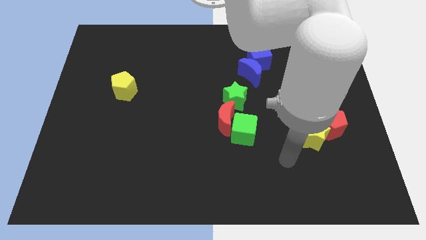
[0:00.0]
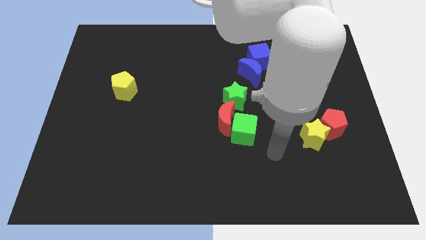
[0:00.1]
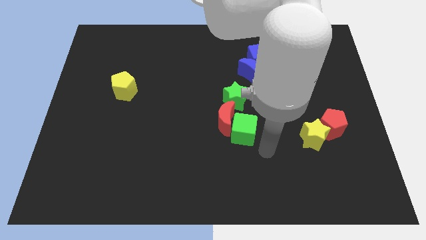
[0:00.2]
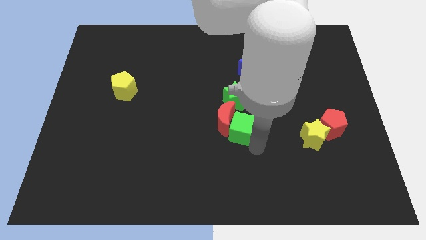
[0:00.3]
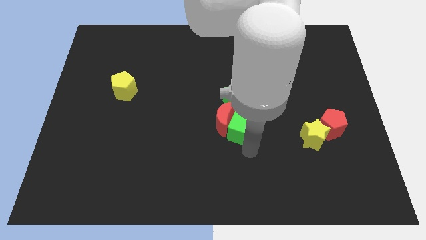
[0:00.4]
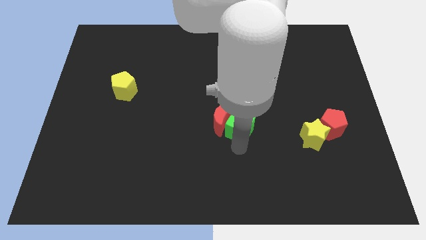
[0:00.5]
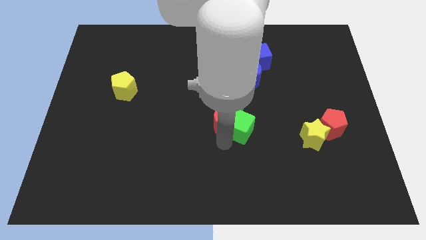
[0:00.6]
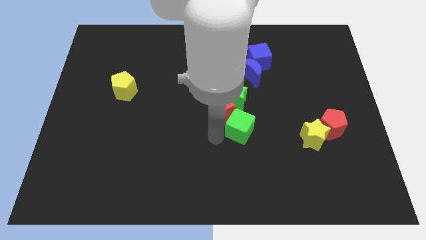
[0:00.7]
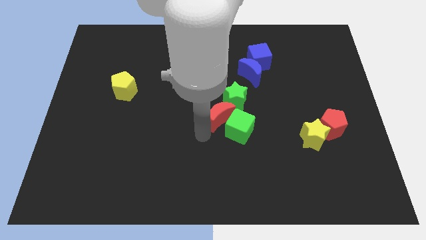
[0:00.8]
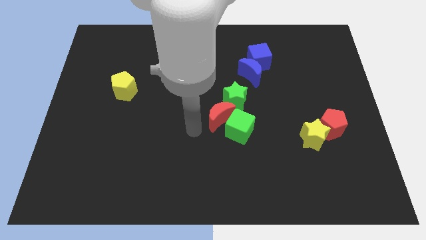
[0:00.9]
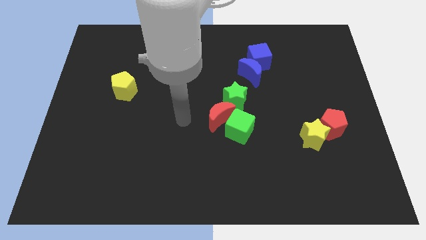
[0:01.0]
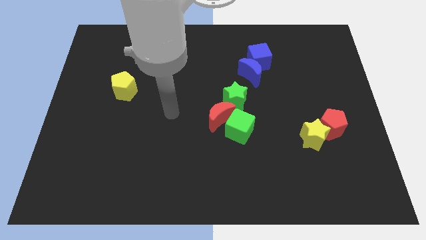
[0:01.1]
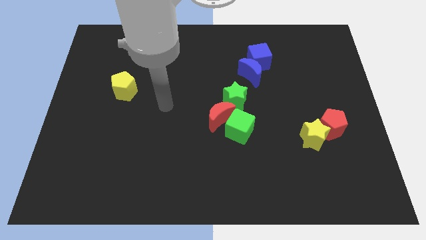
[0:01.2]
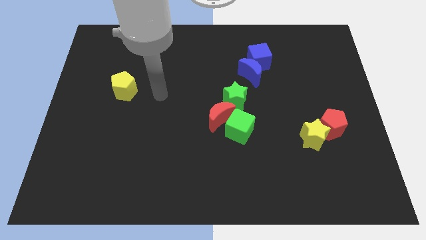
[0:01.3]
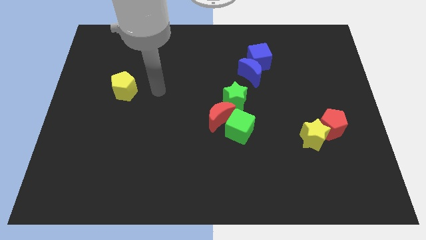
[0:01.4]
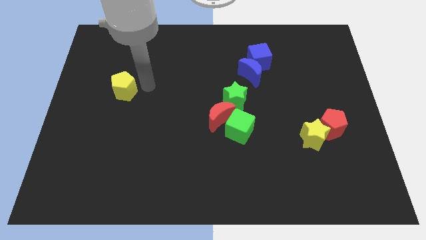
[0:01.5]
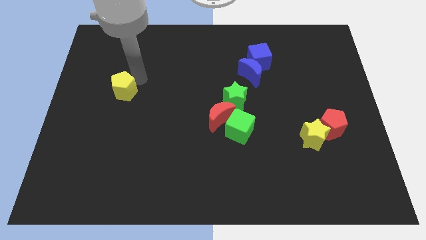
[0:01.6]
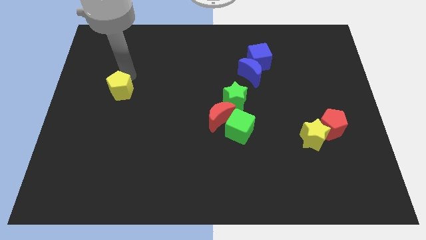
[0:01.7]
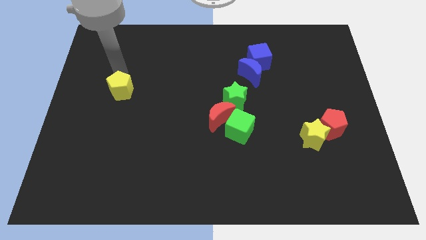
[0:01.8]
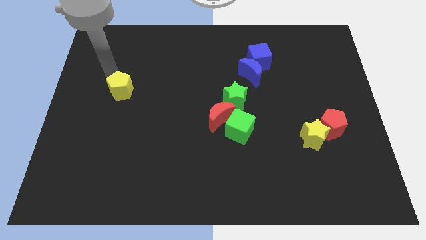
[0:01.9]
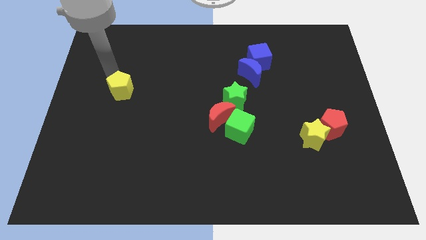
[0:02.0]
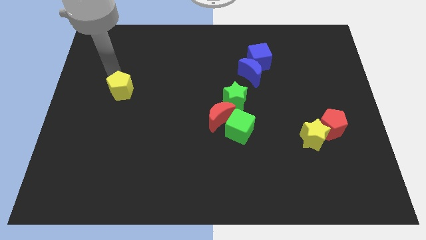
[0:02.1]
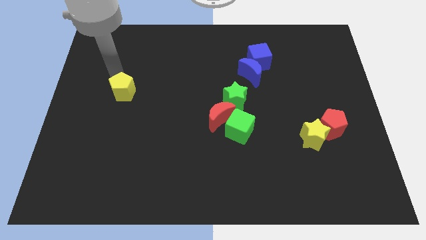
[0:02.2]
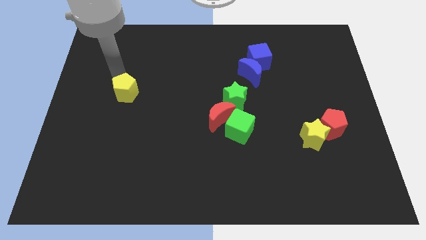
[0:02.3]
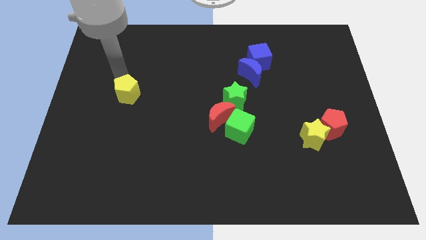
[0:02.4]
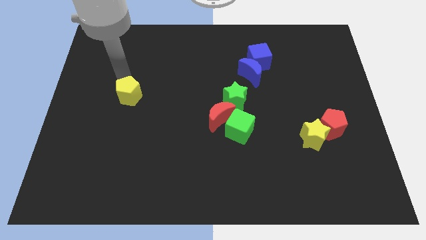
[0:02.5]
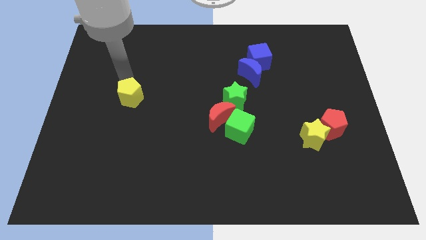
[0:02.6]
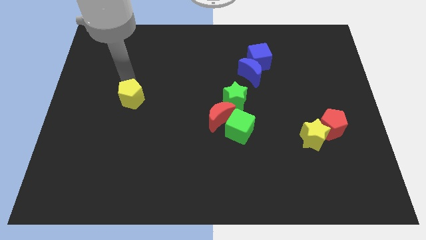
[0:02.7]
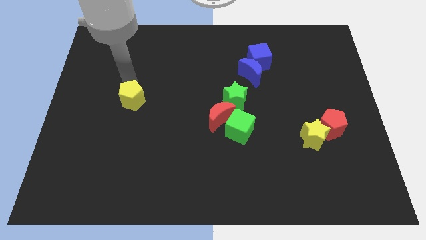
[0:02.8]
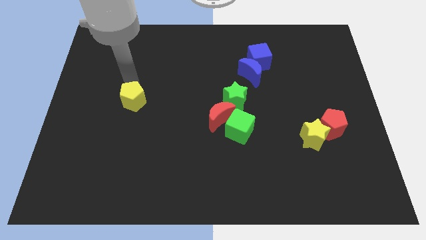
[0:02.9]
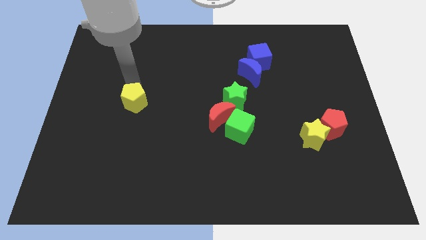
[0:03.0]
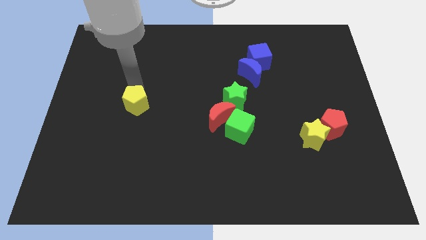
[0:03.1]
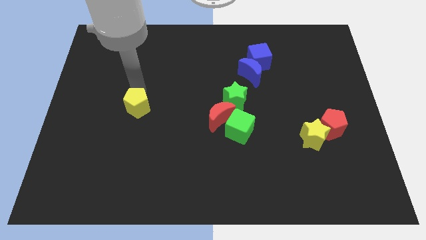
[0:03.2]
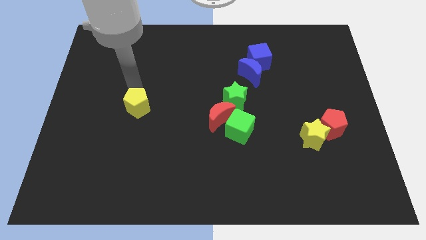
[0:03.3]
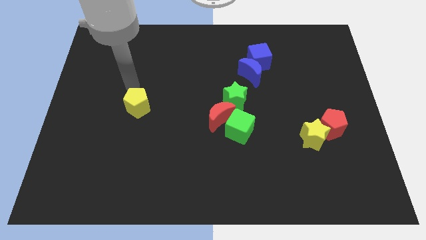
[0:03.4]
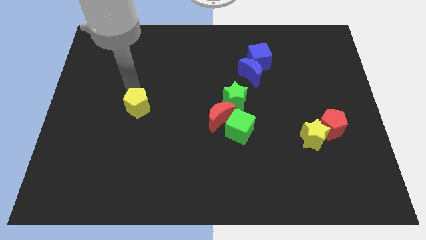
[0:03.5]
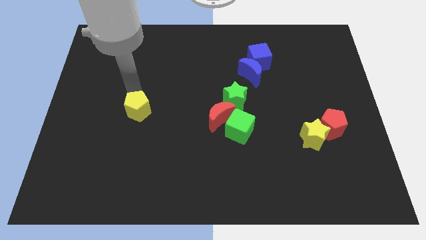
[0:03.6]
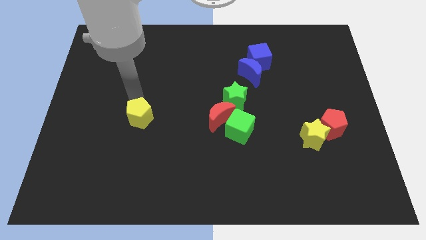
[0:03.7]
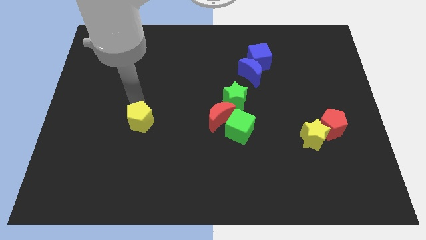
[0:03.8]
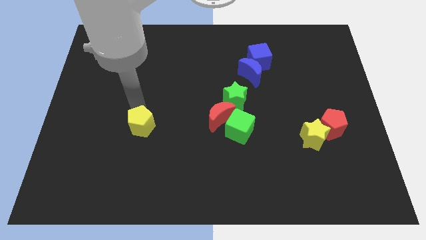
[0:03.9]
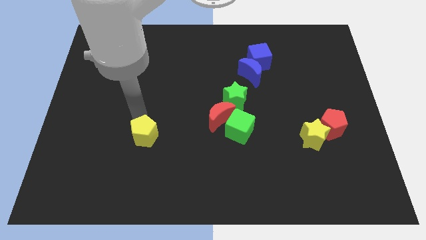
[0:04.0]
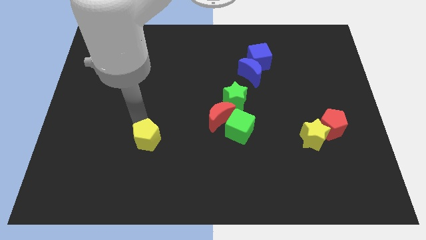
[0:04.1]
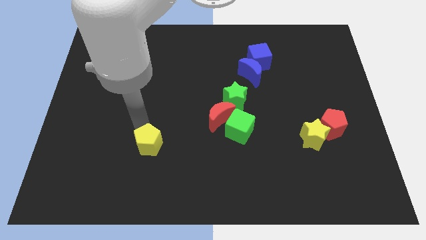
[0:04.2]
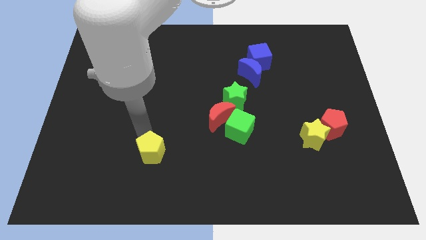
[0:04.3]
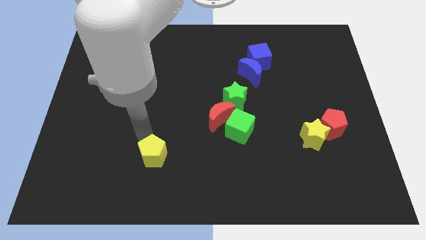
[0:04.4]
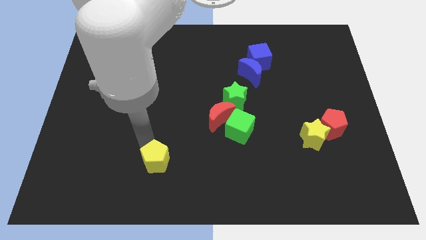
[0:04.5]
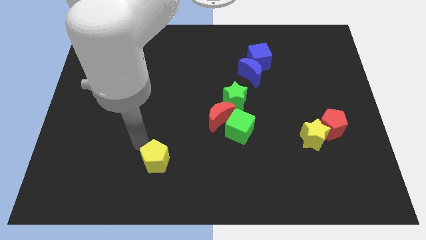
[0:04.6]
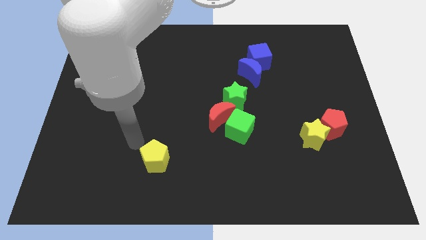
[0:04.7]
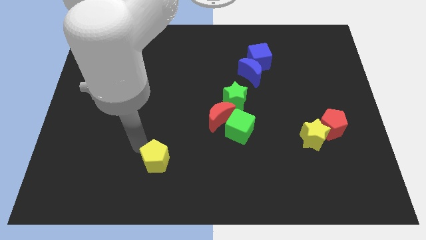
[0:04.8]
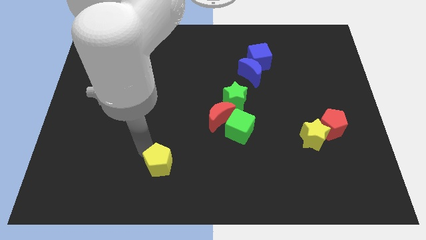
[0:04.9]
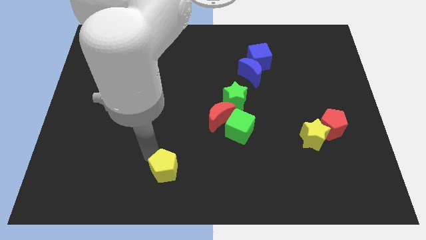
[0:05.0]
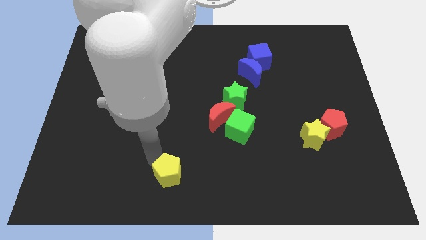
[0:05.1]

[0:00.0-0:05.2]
put the yellow pentagon to the bottom side

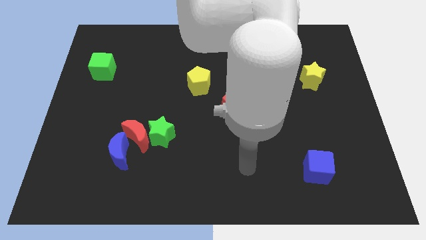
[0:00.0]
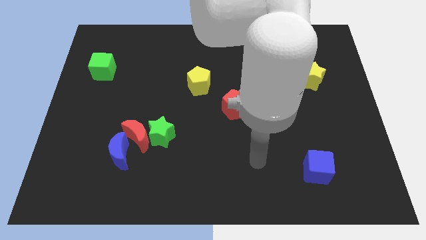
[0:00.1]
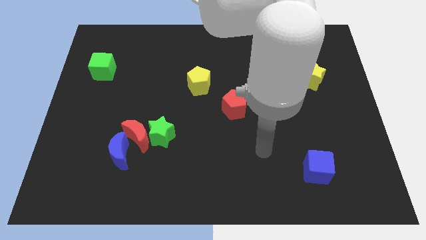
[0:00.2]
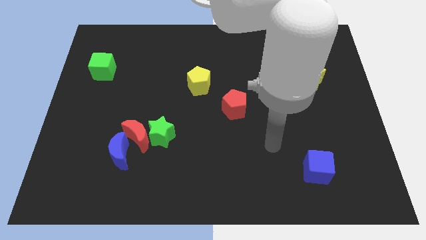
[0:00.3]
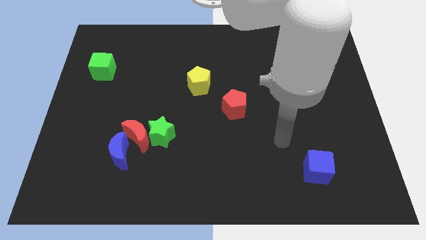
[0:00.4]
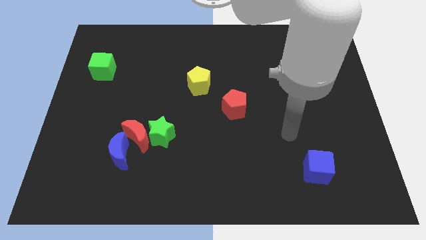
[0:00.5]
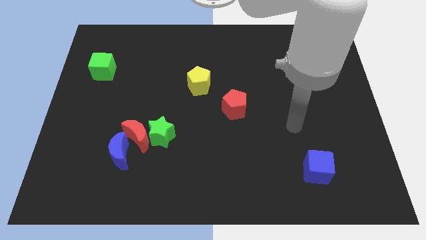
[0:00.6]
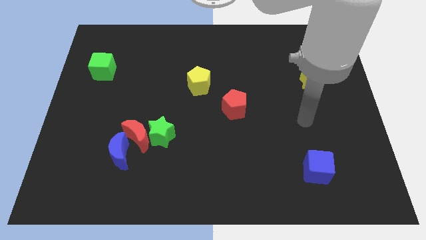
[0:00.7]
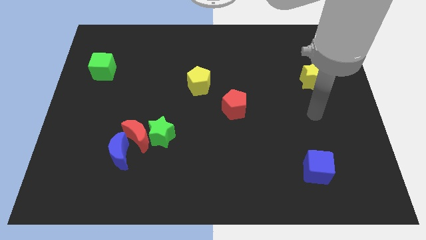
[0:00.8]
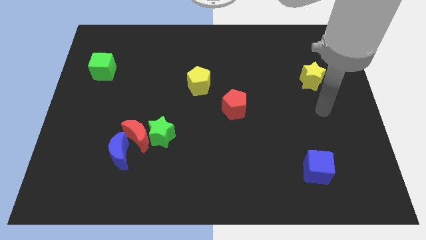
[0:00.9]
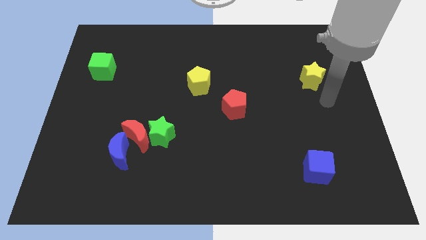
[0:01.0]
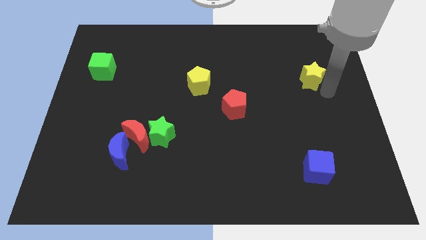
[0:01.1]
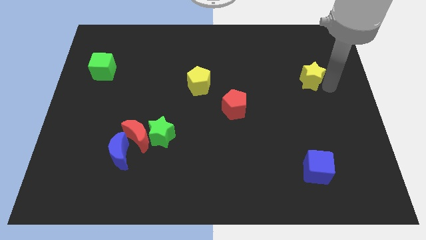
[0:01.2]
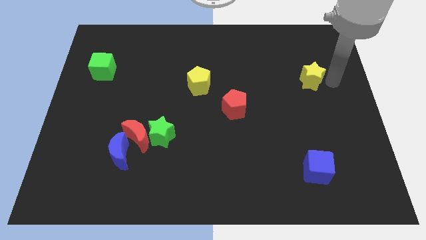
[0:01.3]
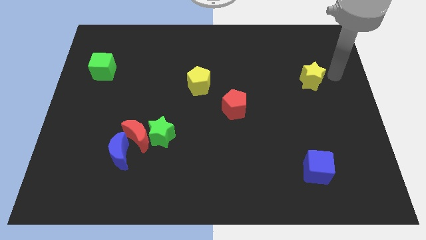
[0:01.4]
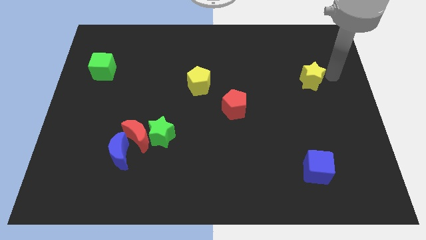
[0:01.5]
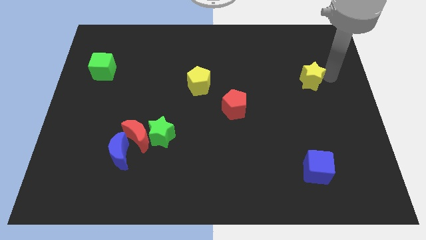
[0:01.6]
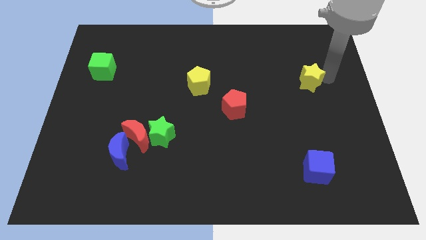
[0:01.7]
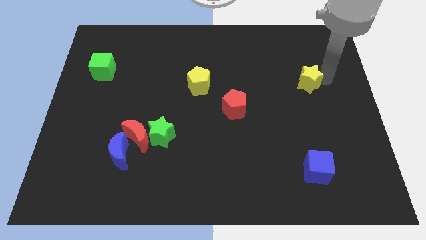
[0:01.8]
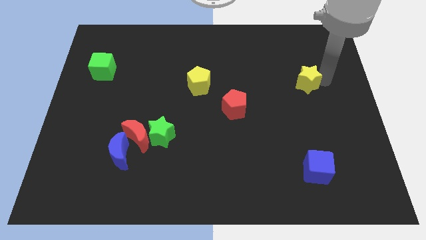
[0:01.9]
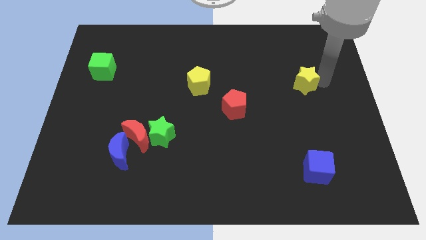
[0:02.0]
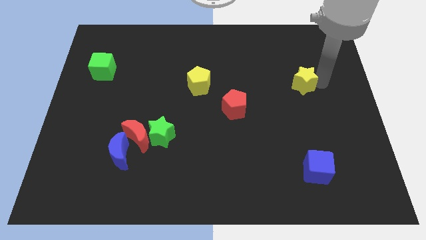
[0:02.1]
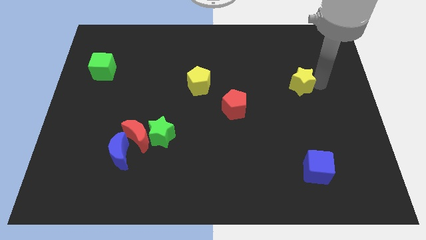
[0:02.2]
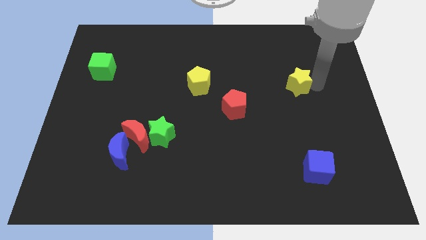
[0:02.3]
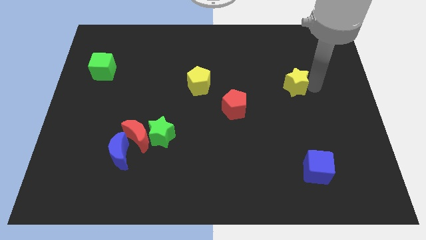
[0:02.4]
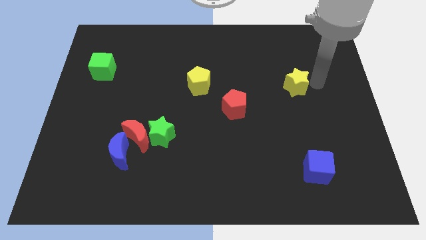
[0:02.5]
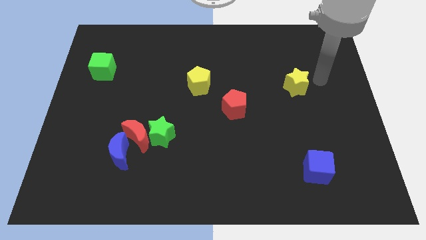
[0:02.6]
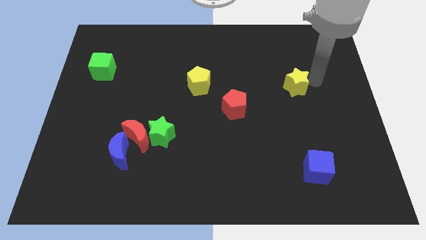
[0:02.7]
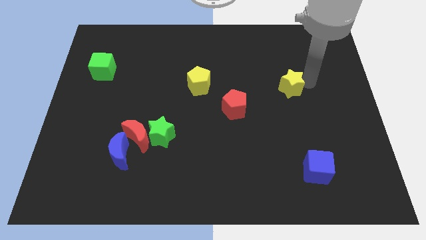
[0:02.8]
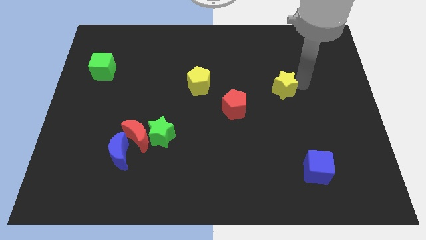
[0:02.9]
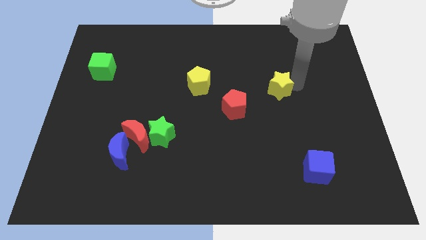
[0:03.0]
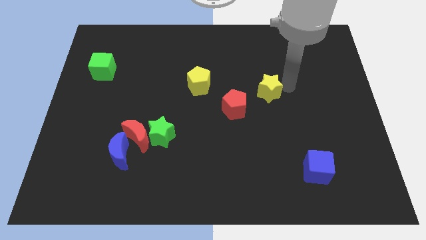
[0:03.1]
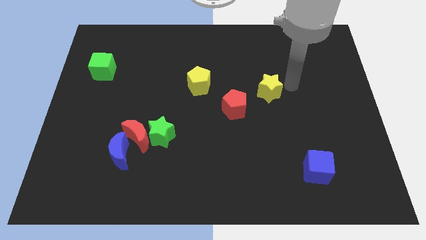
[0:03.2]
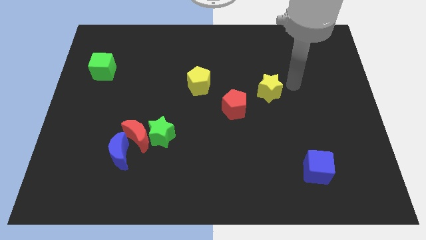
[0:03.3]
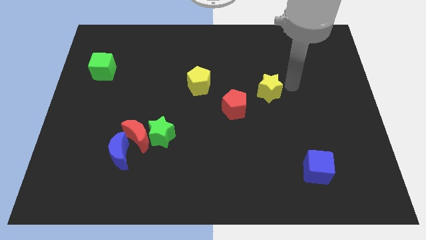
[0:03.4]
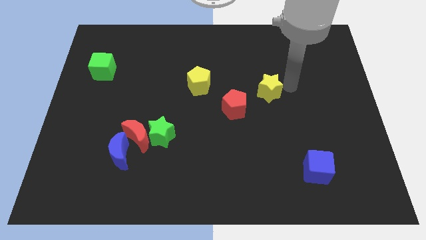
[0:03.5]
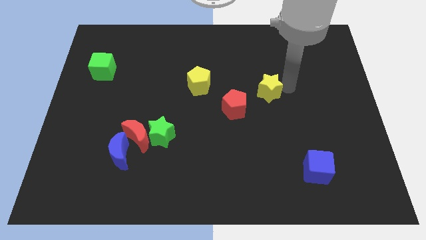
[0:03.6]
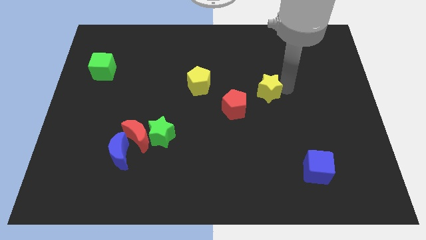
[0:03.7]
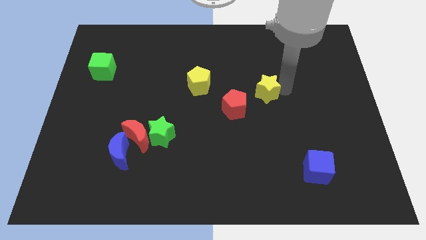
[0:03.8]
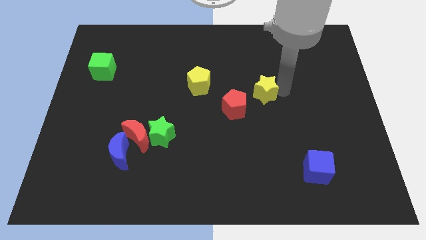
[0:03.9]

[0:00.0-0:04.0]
move the yellow star to the middle of the board
